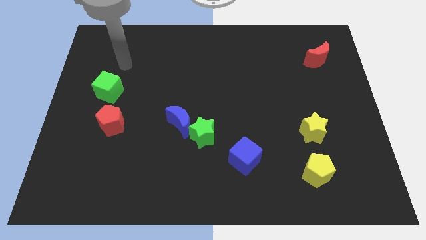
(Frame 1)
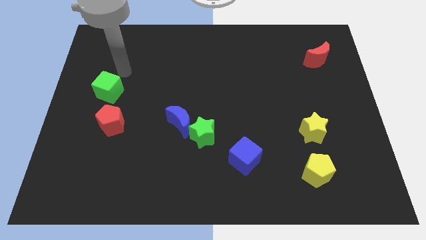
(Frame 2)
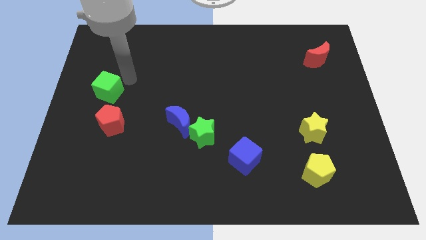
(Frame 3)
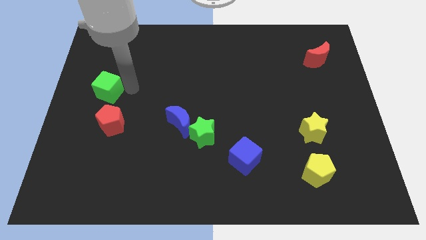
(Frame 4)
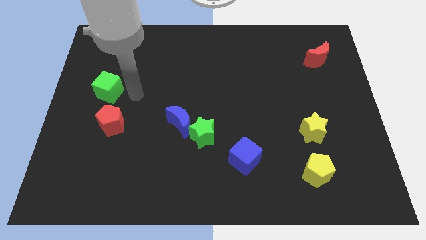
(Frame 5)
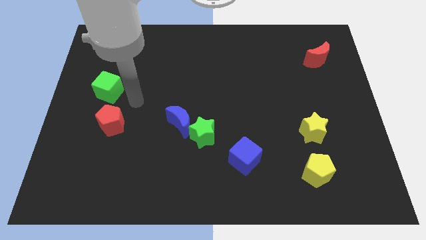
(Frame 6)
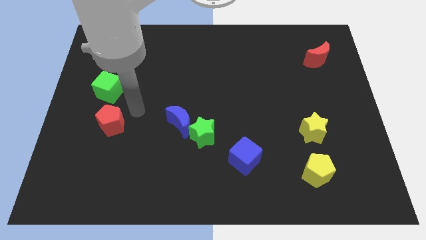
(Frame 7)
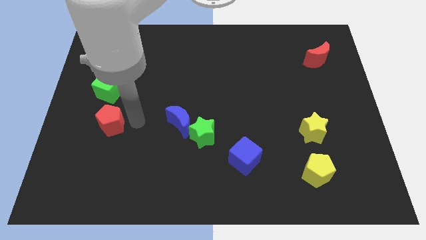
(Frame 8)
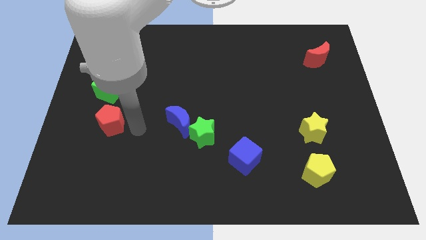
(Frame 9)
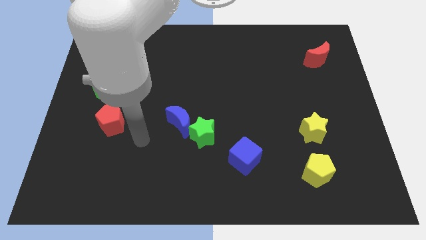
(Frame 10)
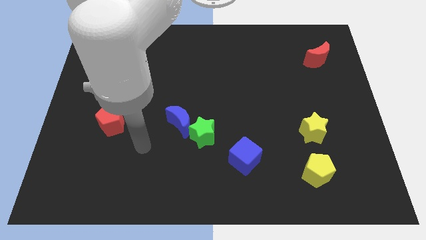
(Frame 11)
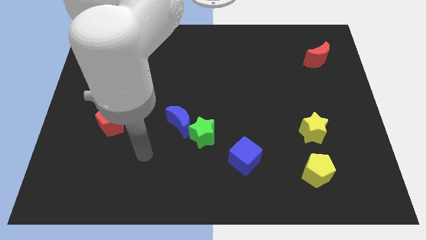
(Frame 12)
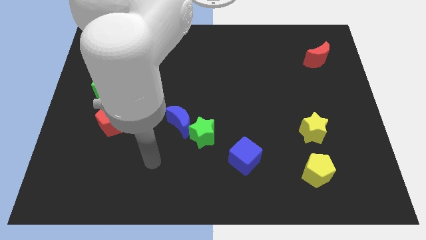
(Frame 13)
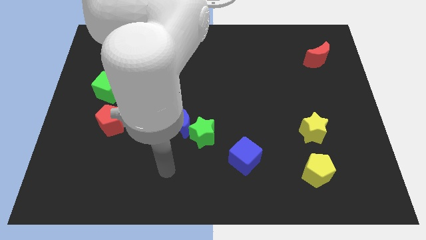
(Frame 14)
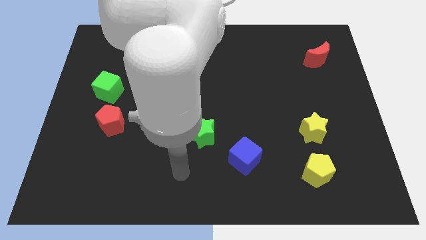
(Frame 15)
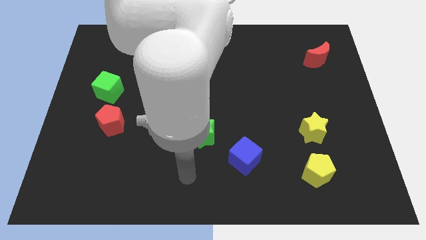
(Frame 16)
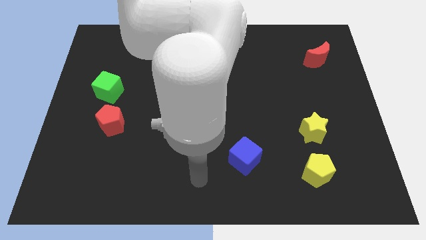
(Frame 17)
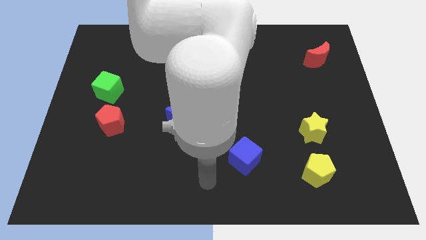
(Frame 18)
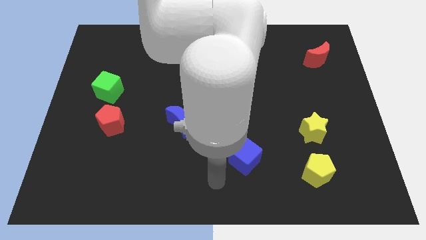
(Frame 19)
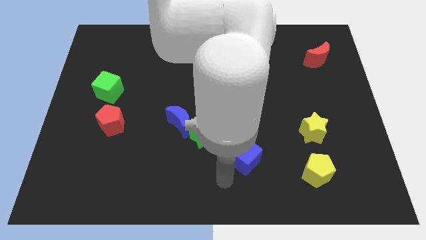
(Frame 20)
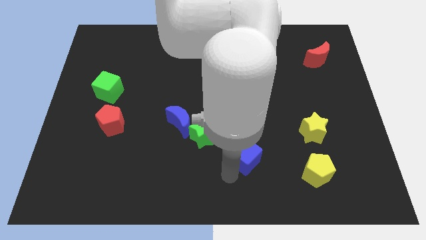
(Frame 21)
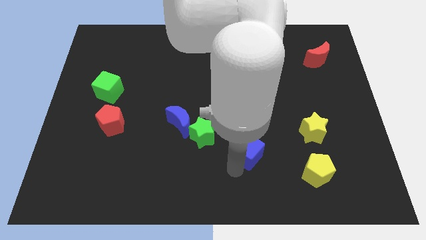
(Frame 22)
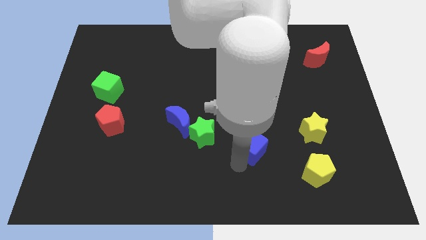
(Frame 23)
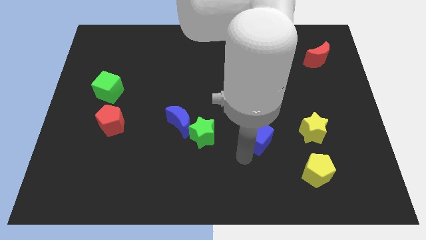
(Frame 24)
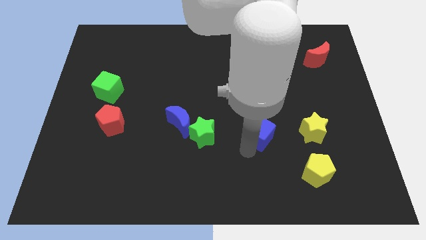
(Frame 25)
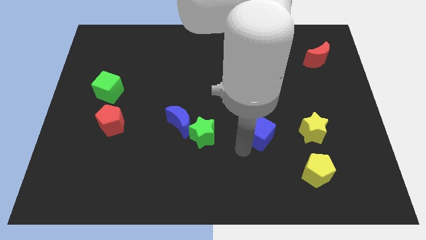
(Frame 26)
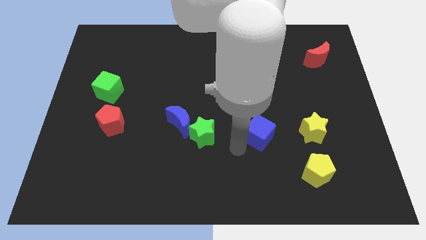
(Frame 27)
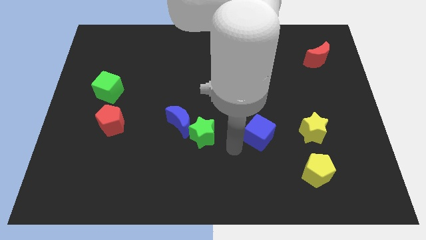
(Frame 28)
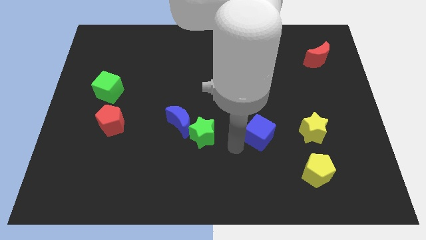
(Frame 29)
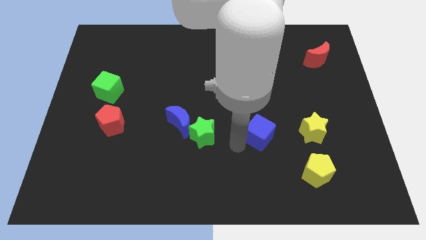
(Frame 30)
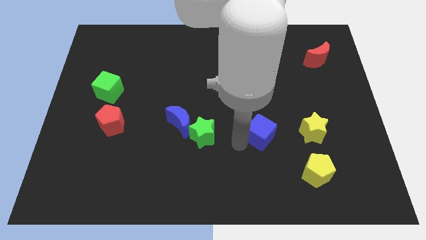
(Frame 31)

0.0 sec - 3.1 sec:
move the blue cube diagonally up and right a little

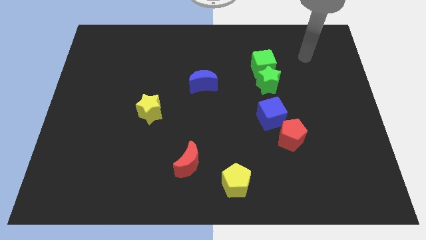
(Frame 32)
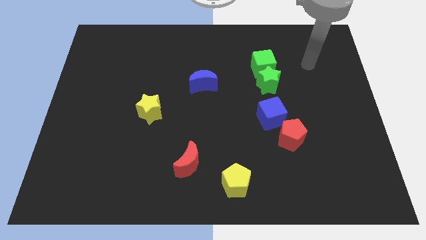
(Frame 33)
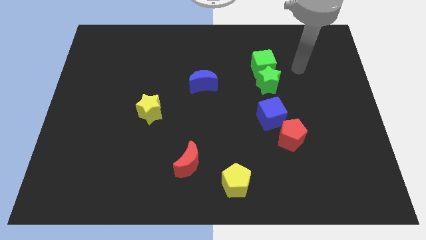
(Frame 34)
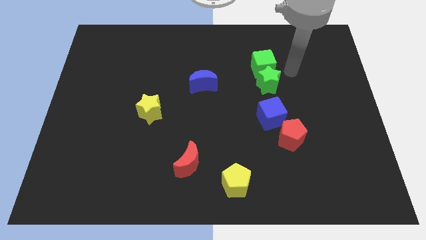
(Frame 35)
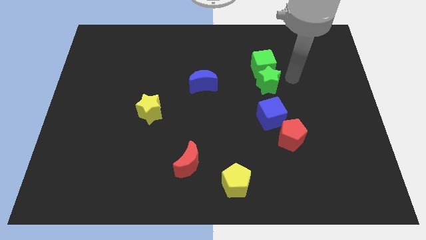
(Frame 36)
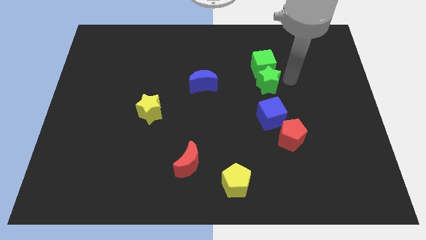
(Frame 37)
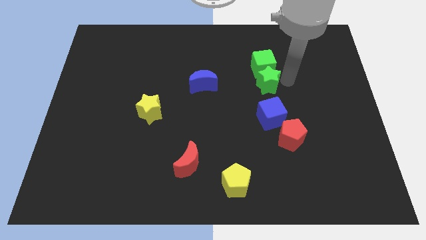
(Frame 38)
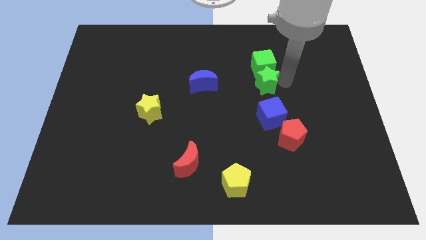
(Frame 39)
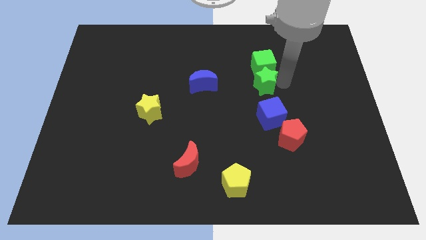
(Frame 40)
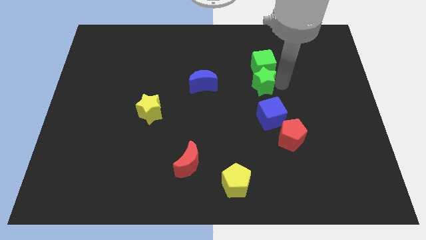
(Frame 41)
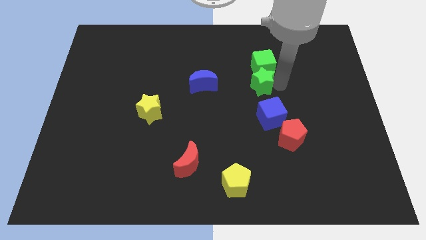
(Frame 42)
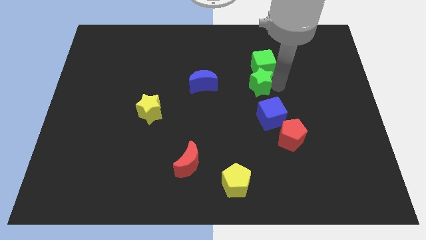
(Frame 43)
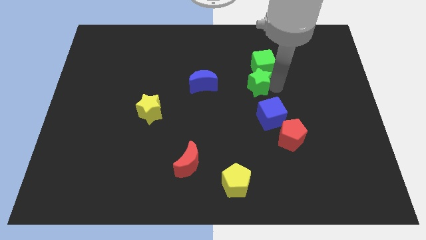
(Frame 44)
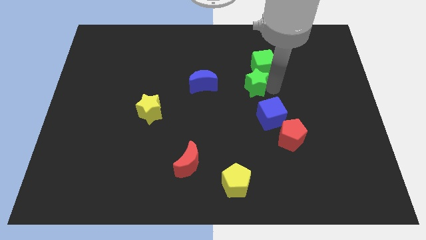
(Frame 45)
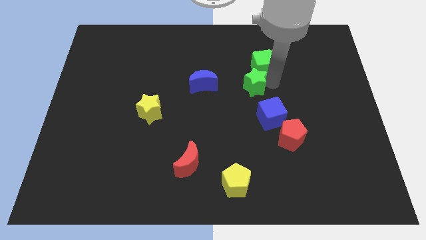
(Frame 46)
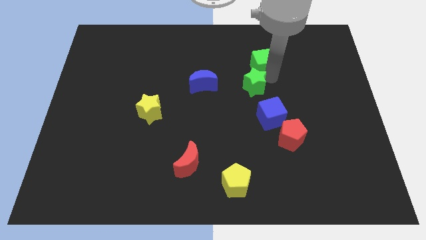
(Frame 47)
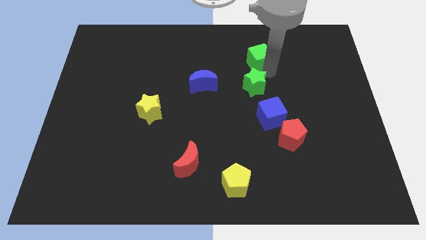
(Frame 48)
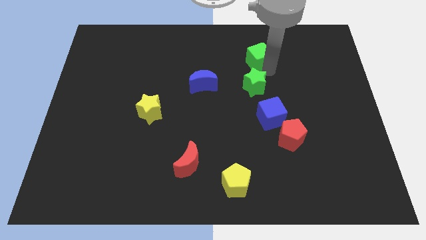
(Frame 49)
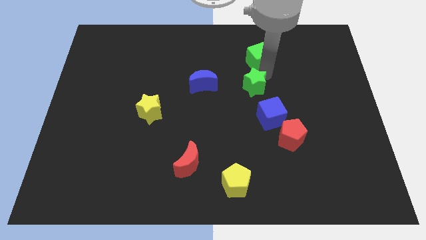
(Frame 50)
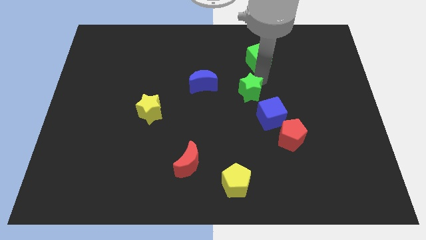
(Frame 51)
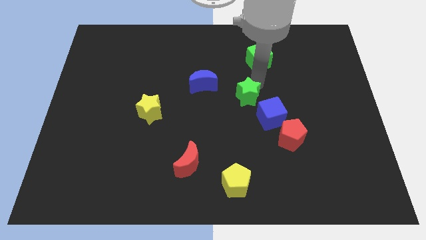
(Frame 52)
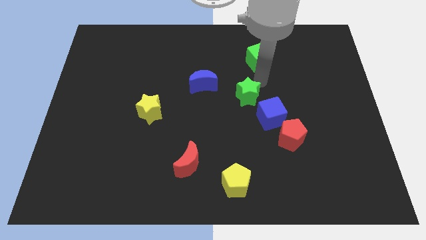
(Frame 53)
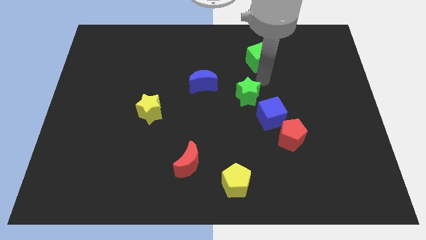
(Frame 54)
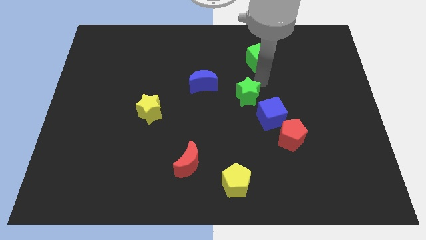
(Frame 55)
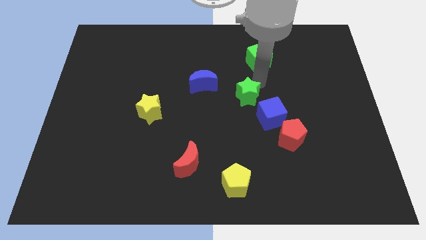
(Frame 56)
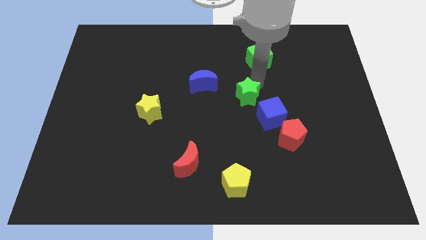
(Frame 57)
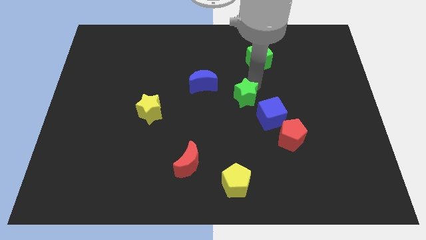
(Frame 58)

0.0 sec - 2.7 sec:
move the green star a little bit down and to the left diagonally

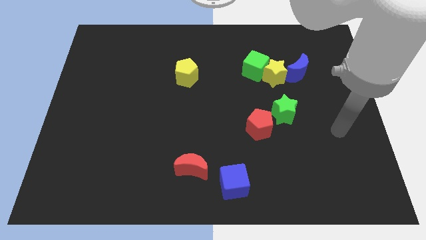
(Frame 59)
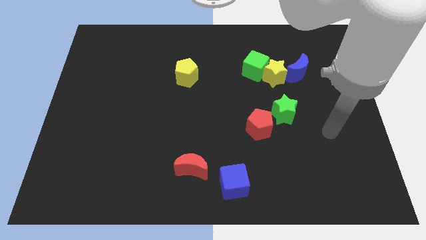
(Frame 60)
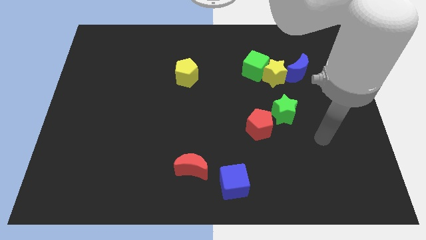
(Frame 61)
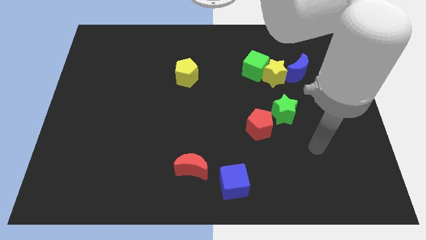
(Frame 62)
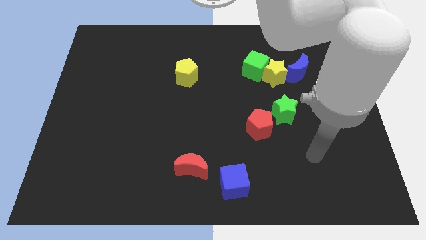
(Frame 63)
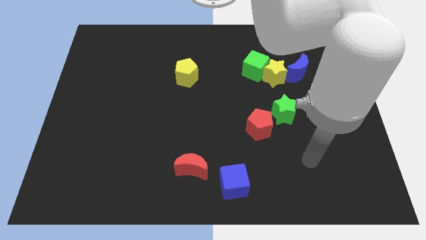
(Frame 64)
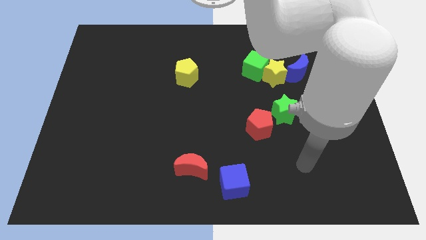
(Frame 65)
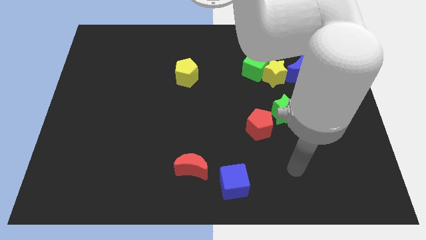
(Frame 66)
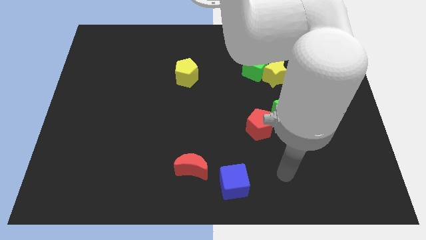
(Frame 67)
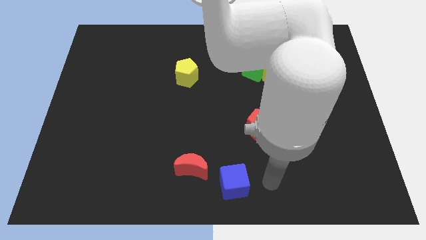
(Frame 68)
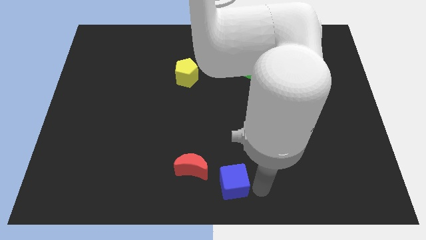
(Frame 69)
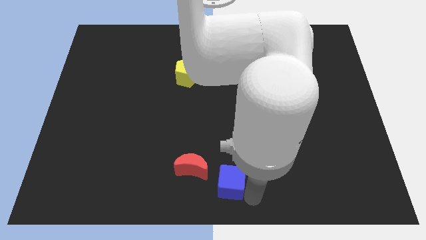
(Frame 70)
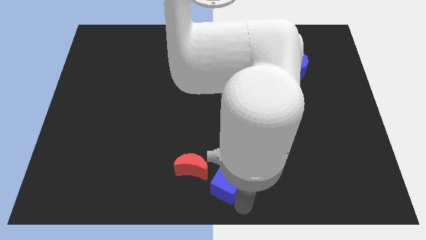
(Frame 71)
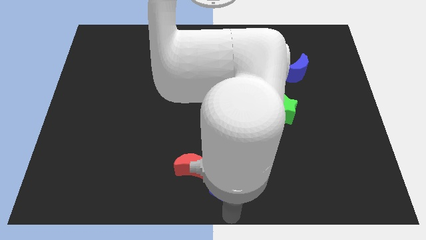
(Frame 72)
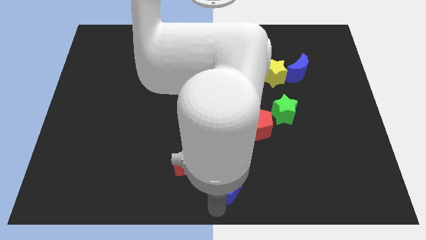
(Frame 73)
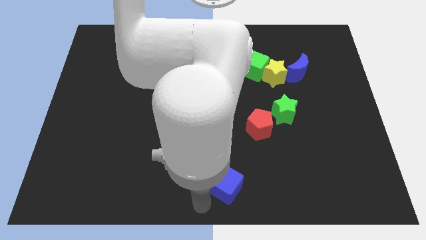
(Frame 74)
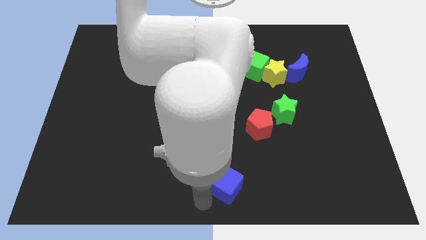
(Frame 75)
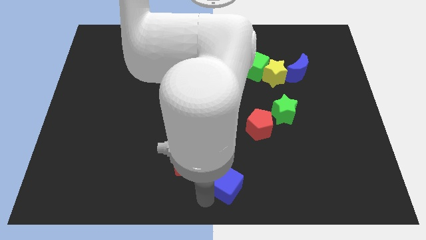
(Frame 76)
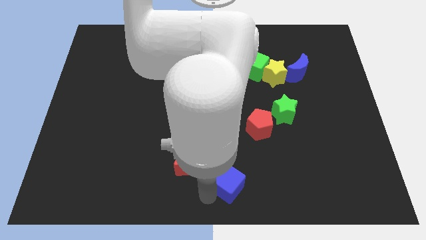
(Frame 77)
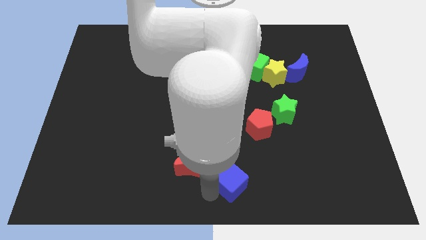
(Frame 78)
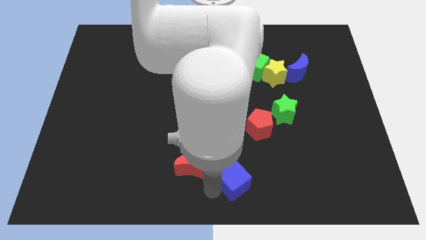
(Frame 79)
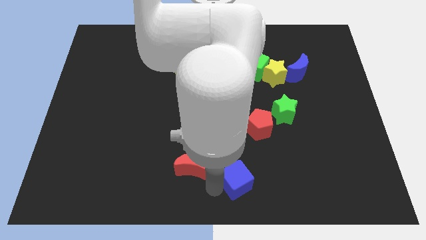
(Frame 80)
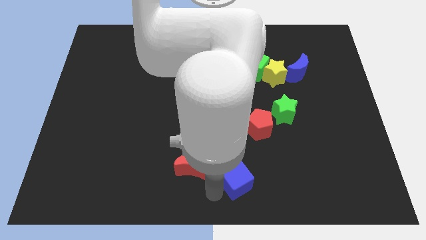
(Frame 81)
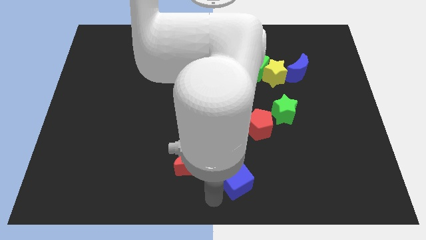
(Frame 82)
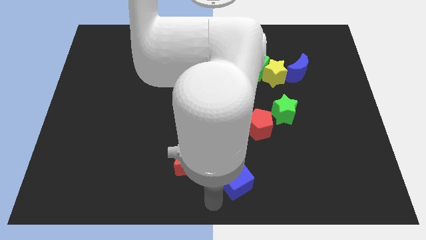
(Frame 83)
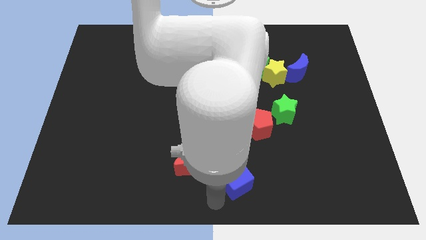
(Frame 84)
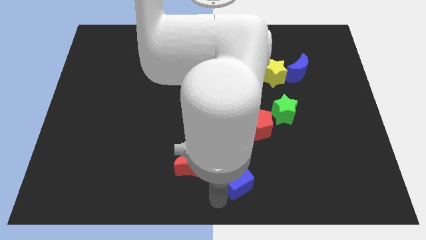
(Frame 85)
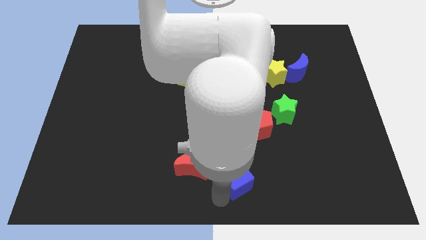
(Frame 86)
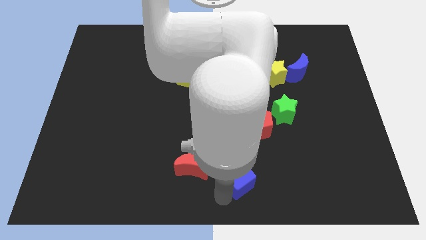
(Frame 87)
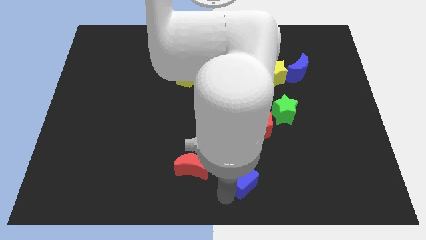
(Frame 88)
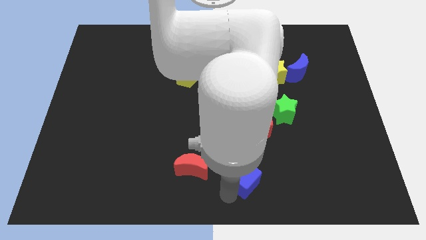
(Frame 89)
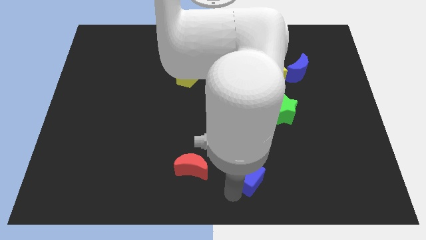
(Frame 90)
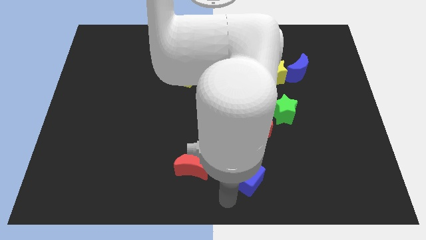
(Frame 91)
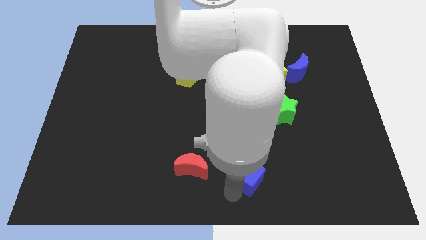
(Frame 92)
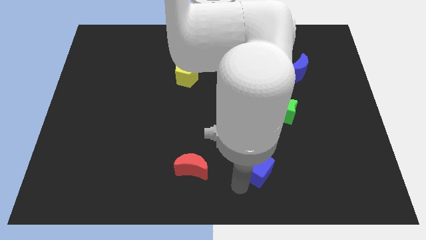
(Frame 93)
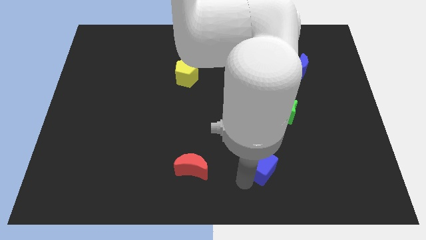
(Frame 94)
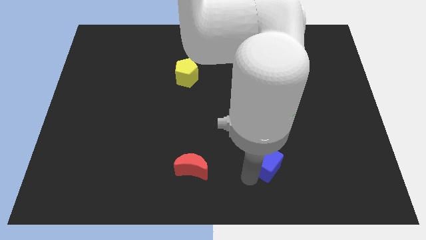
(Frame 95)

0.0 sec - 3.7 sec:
push the blue cube a little bit up and then to the right
